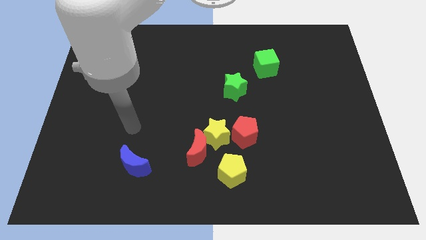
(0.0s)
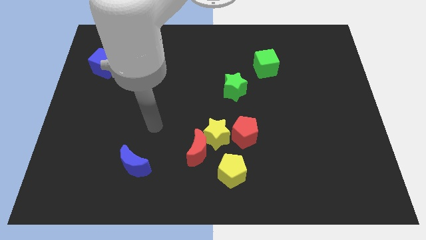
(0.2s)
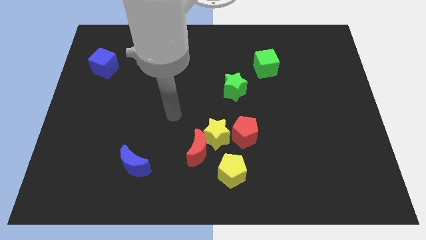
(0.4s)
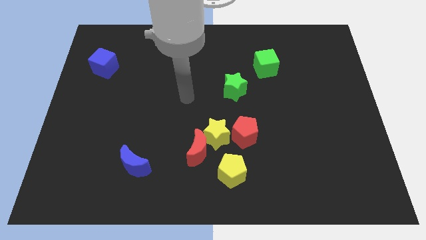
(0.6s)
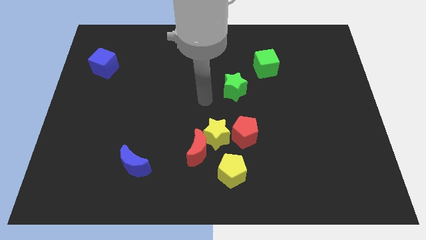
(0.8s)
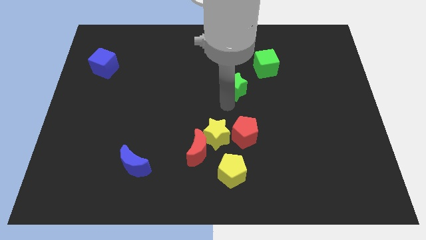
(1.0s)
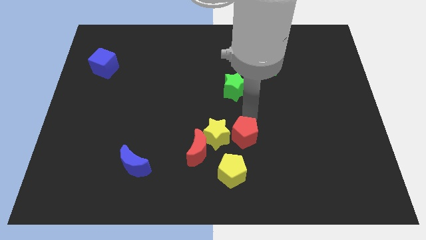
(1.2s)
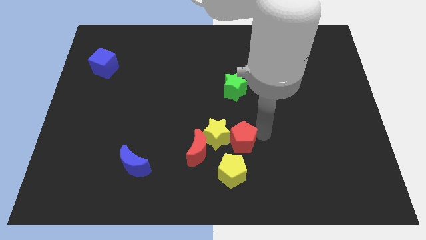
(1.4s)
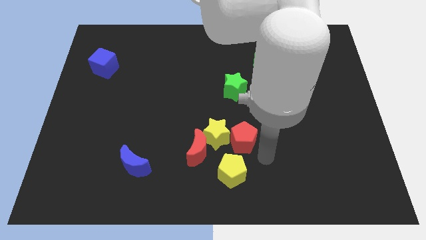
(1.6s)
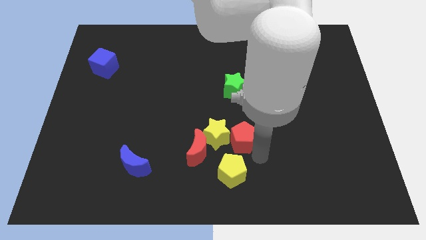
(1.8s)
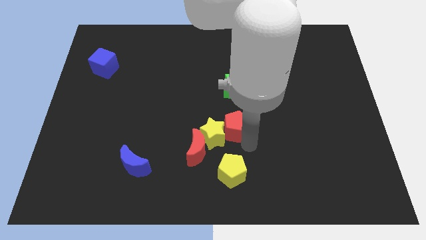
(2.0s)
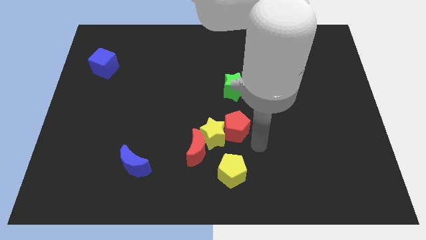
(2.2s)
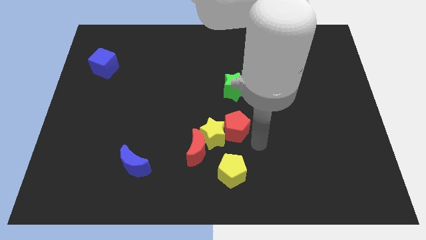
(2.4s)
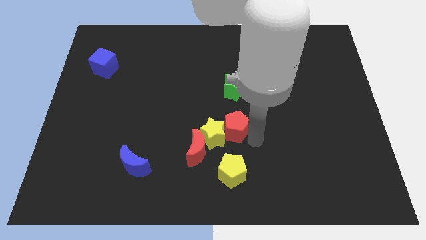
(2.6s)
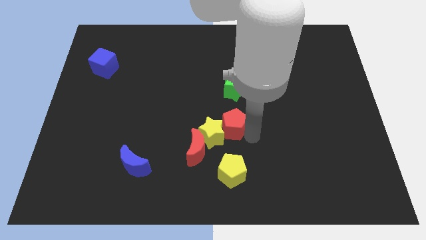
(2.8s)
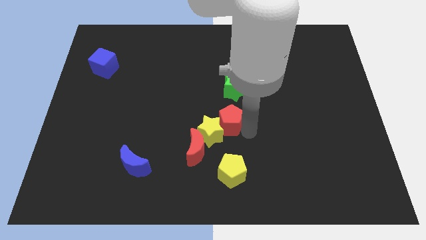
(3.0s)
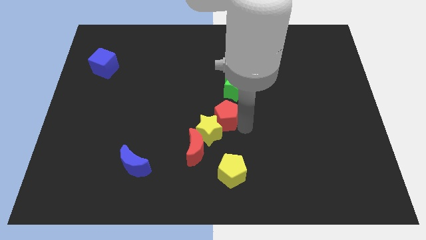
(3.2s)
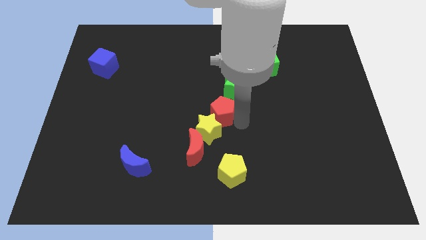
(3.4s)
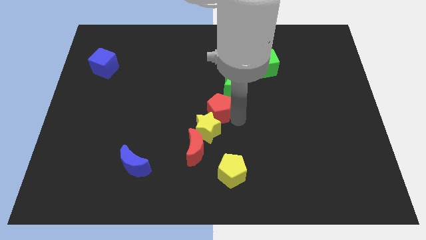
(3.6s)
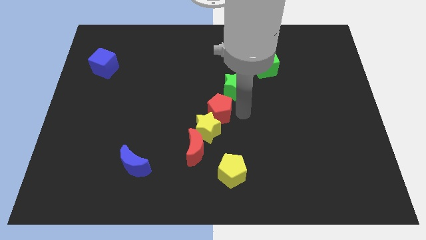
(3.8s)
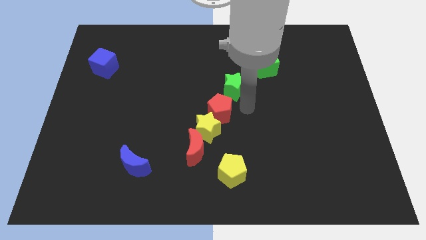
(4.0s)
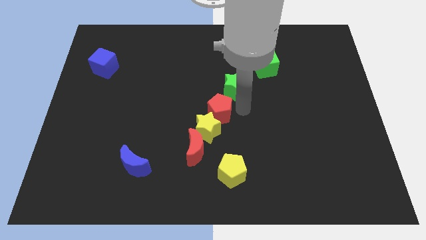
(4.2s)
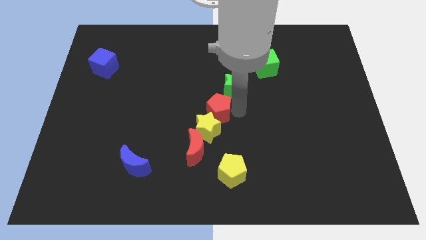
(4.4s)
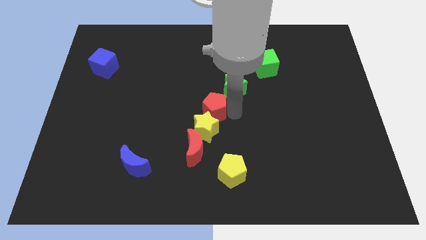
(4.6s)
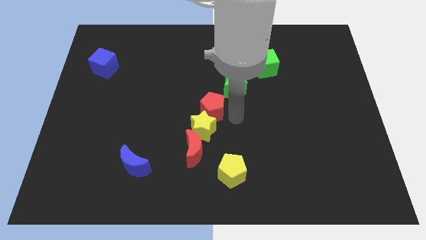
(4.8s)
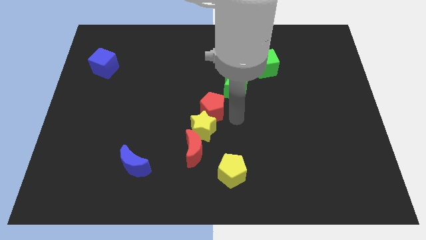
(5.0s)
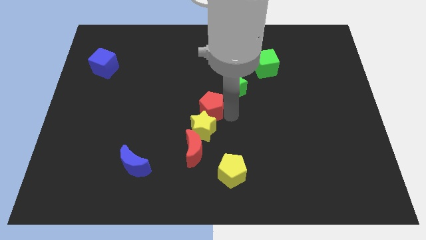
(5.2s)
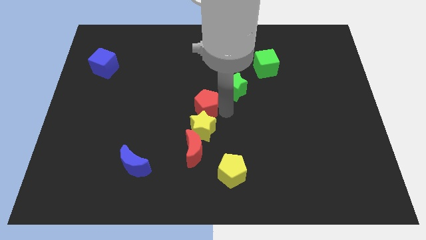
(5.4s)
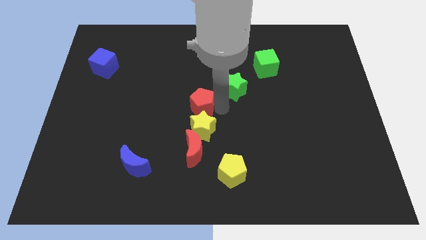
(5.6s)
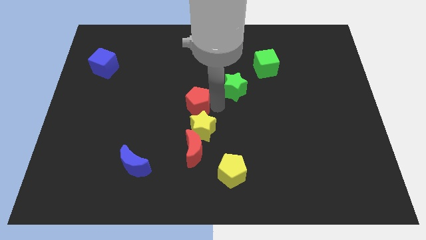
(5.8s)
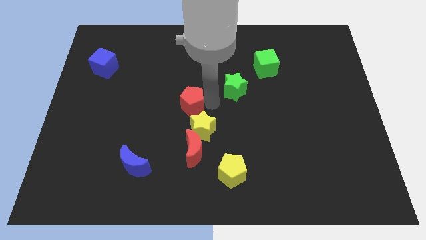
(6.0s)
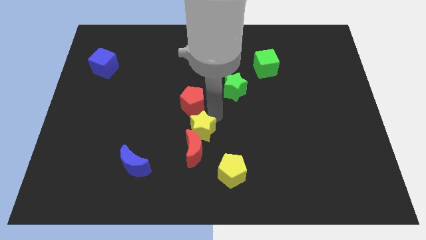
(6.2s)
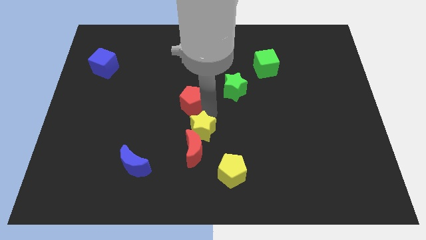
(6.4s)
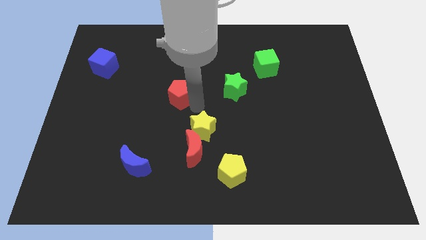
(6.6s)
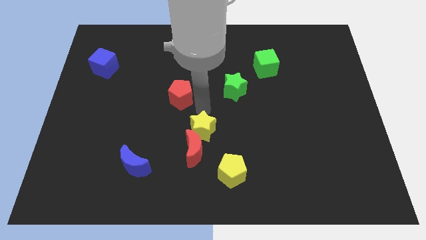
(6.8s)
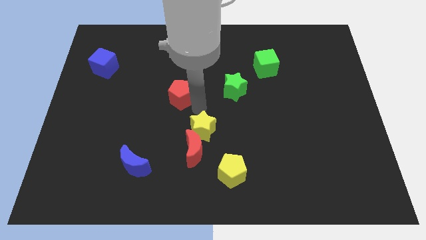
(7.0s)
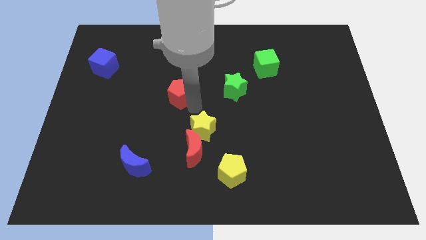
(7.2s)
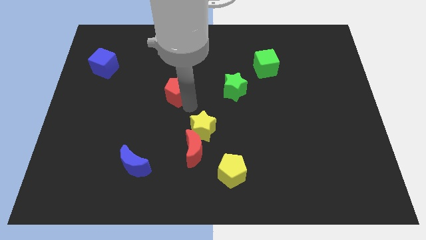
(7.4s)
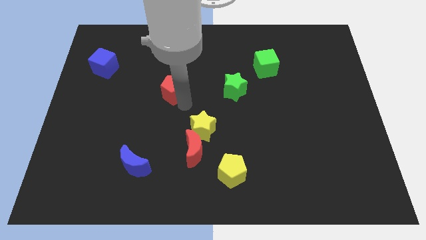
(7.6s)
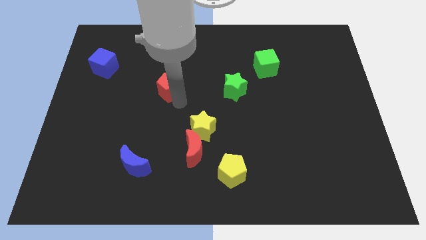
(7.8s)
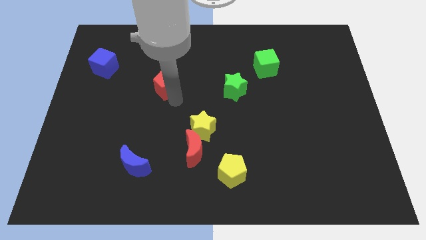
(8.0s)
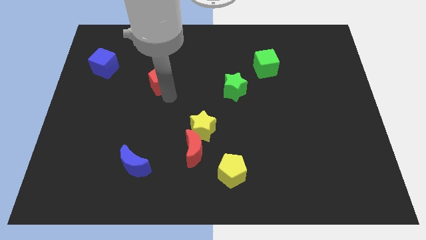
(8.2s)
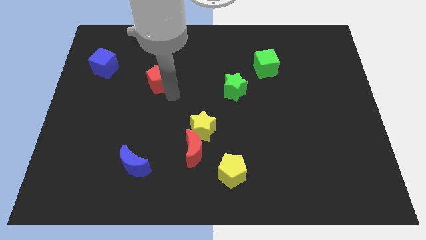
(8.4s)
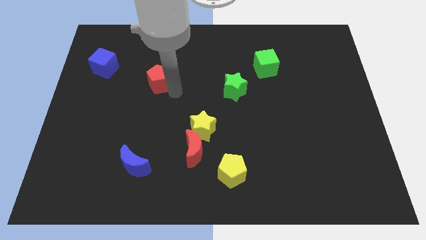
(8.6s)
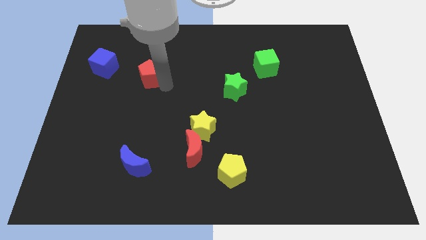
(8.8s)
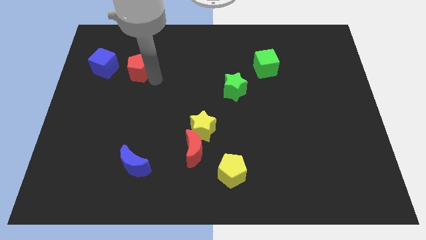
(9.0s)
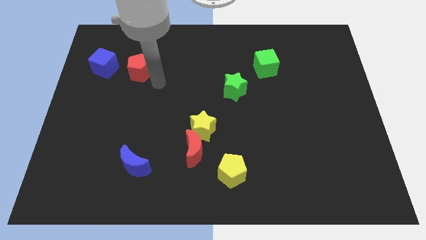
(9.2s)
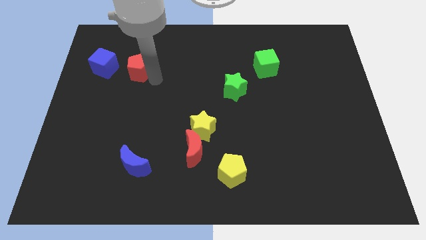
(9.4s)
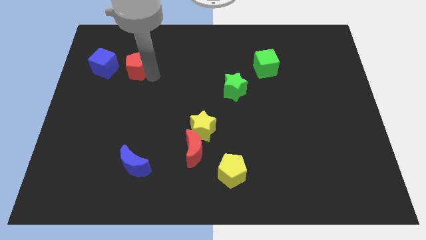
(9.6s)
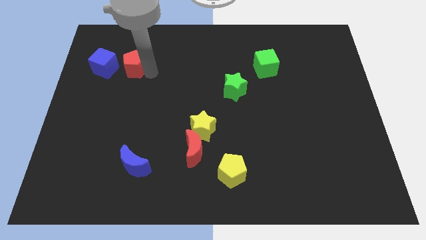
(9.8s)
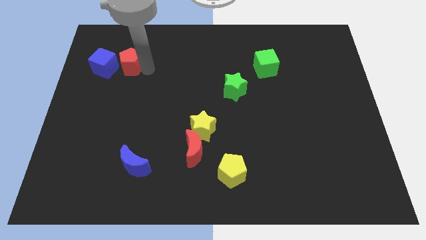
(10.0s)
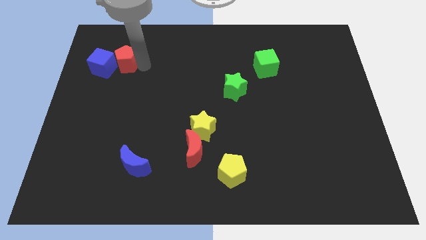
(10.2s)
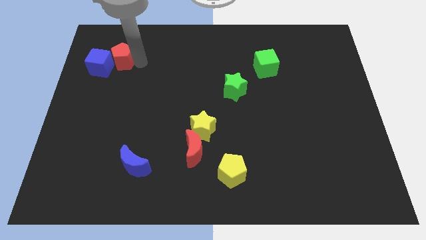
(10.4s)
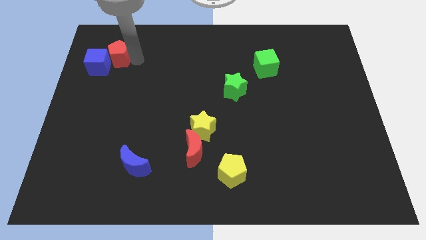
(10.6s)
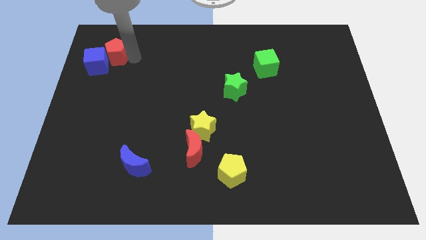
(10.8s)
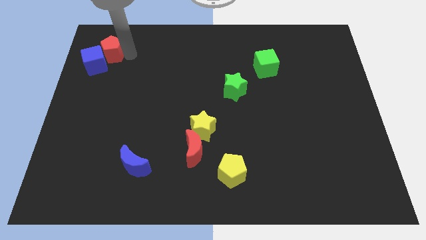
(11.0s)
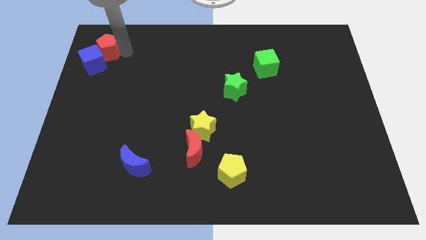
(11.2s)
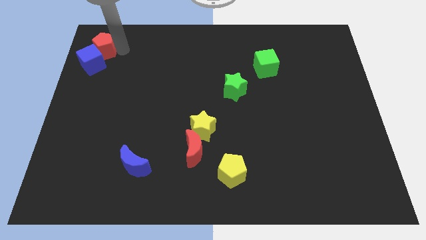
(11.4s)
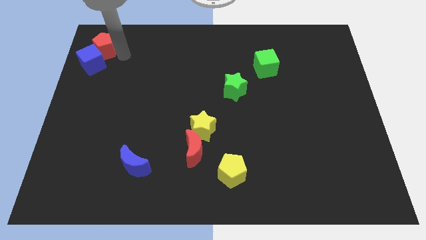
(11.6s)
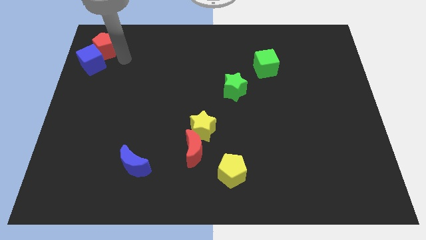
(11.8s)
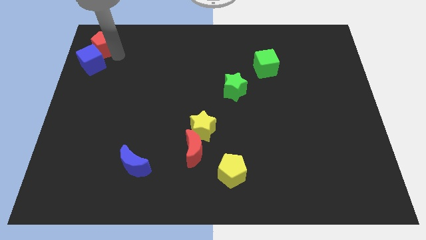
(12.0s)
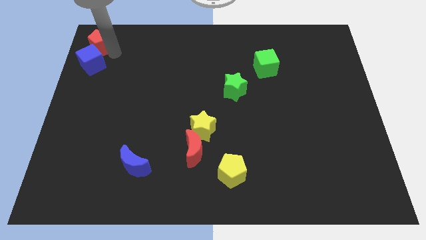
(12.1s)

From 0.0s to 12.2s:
push the red pentagon to the top left corner
